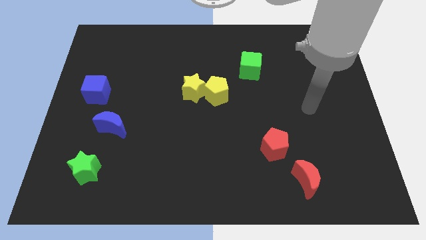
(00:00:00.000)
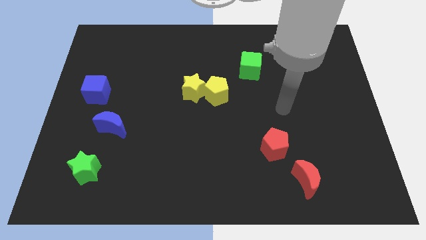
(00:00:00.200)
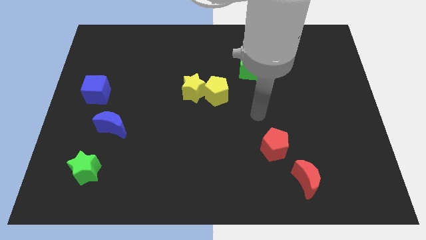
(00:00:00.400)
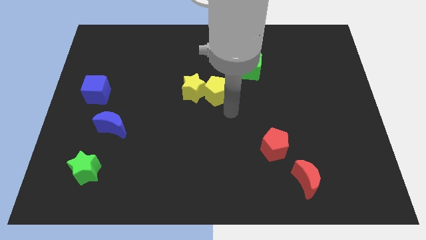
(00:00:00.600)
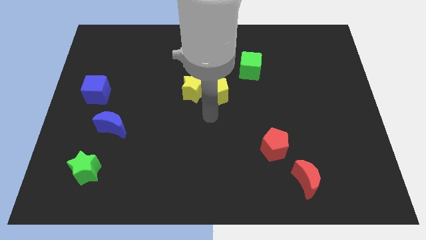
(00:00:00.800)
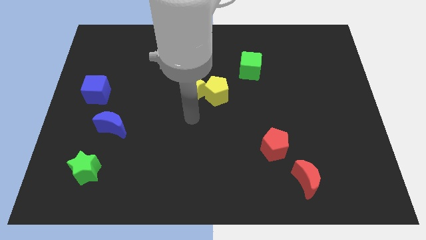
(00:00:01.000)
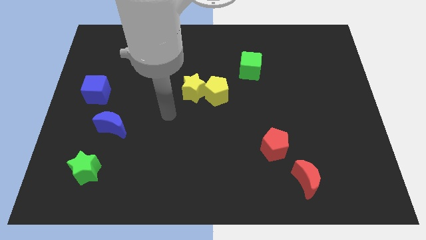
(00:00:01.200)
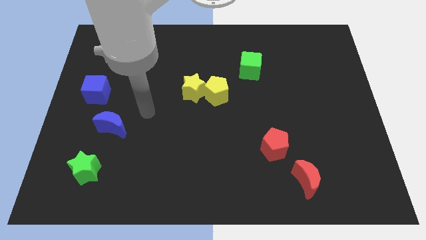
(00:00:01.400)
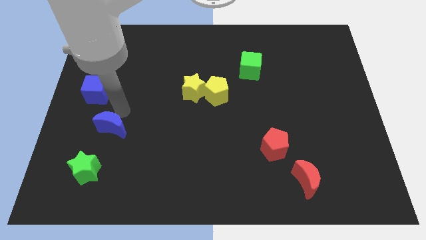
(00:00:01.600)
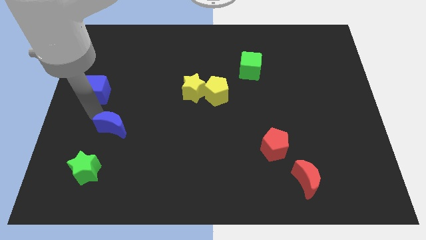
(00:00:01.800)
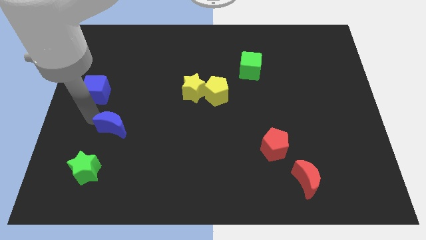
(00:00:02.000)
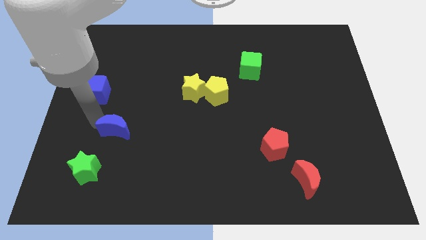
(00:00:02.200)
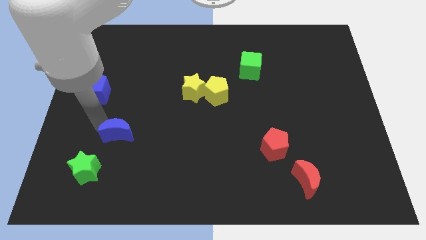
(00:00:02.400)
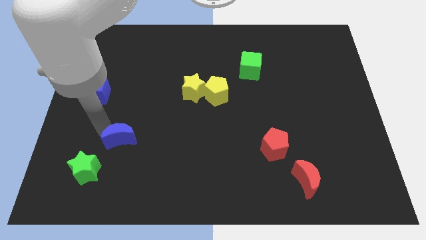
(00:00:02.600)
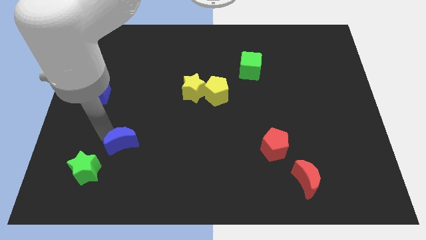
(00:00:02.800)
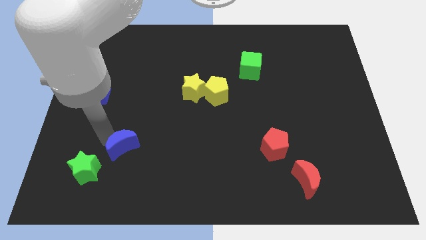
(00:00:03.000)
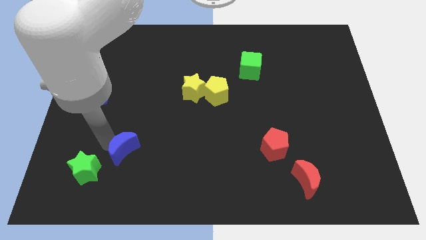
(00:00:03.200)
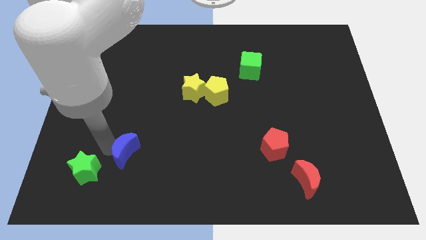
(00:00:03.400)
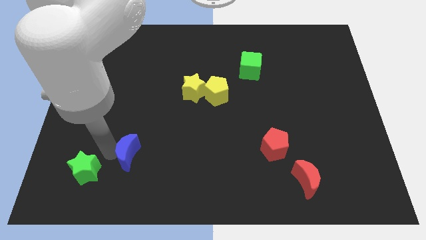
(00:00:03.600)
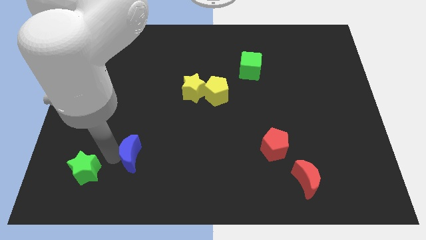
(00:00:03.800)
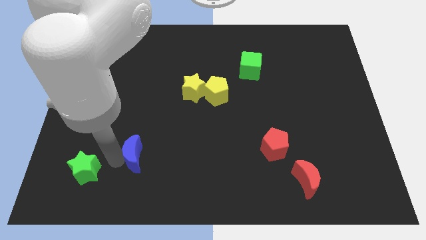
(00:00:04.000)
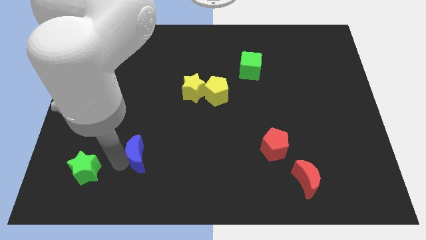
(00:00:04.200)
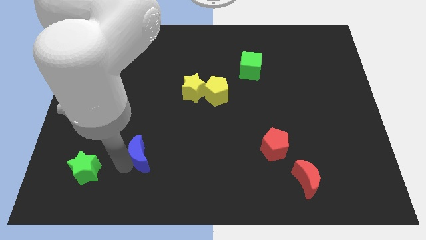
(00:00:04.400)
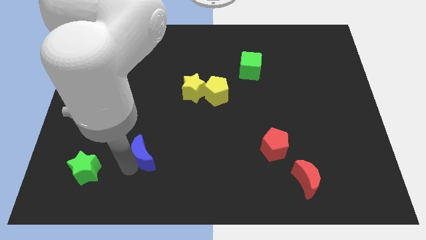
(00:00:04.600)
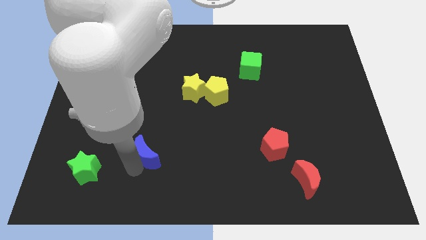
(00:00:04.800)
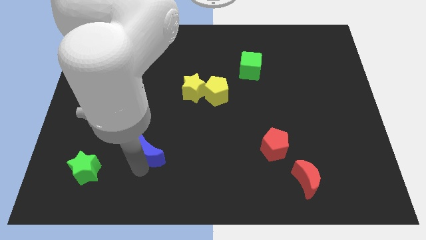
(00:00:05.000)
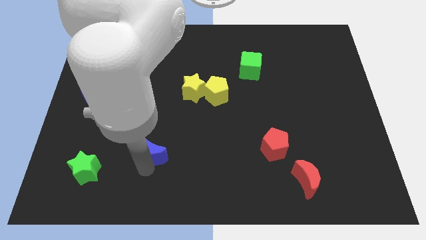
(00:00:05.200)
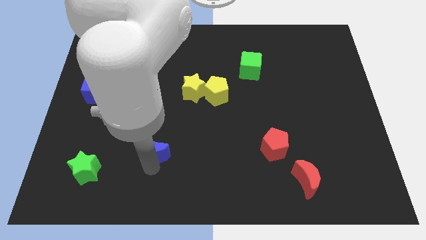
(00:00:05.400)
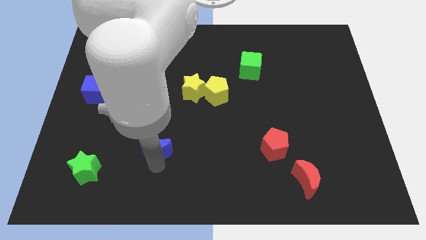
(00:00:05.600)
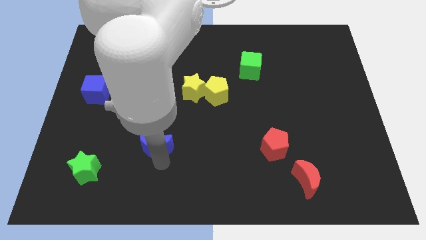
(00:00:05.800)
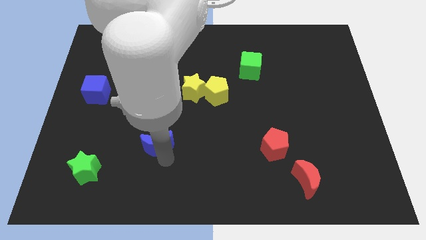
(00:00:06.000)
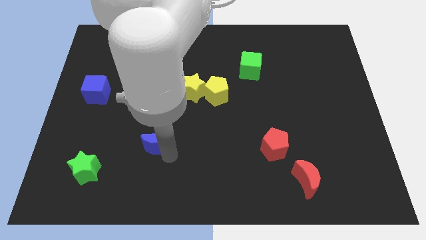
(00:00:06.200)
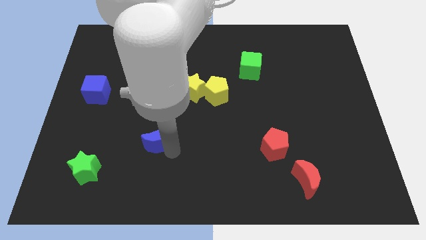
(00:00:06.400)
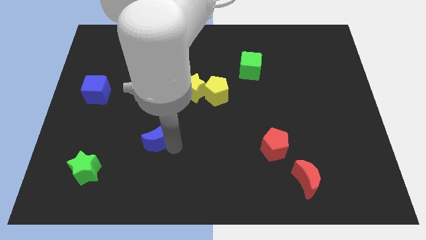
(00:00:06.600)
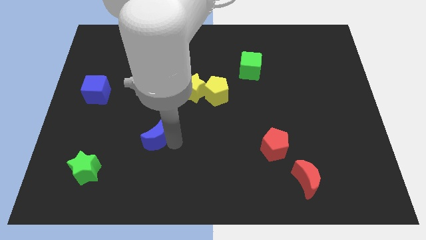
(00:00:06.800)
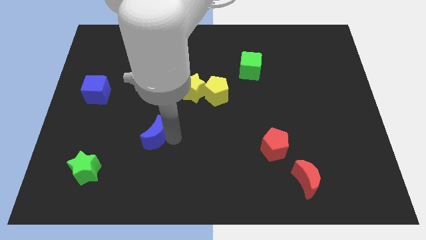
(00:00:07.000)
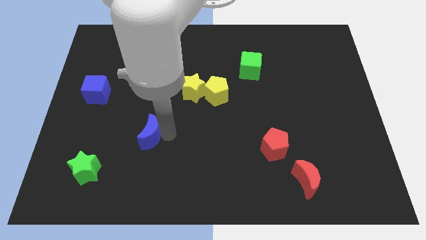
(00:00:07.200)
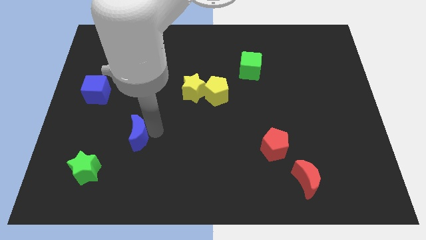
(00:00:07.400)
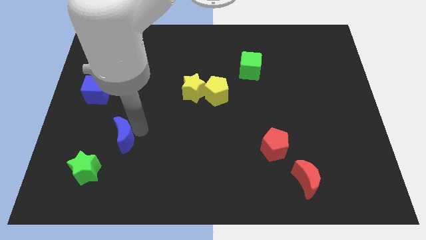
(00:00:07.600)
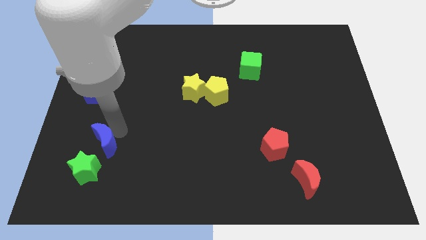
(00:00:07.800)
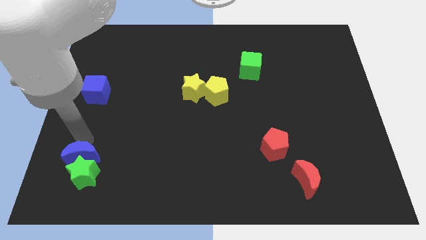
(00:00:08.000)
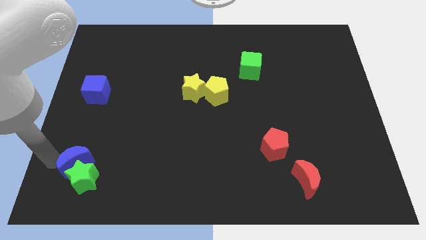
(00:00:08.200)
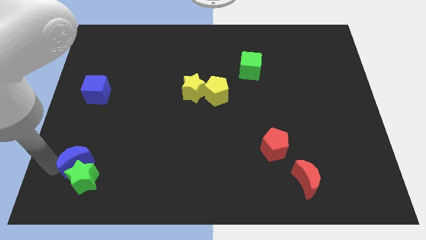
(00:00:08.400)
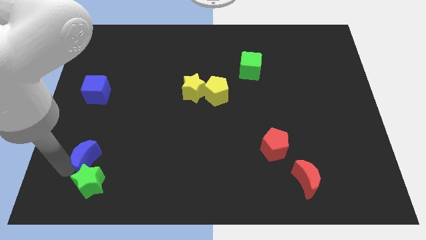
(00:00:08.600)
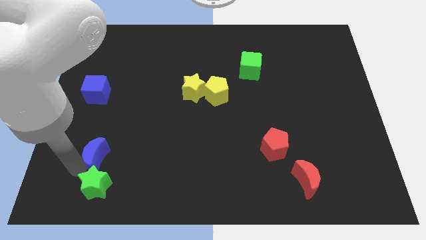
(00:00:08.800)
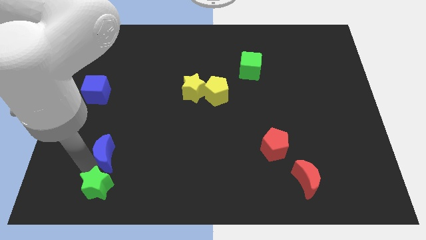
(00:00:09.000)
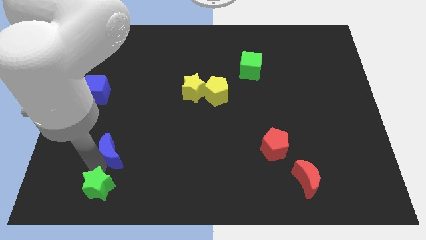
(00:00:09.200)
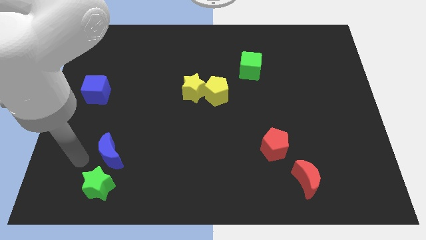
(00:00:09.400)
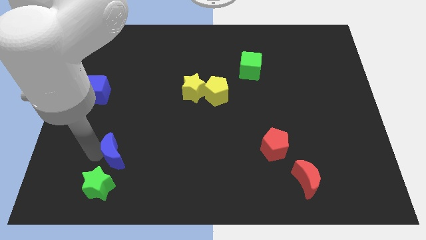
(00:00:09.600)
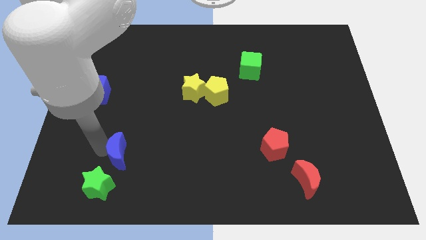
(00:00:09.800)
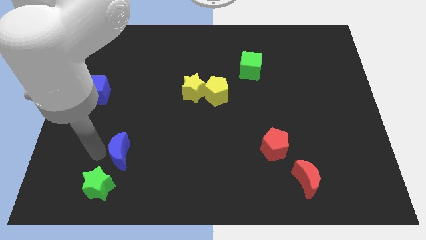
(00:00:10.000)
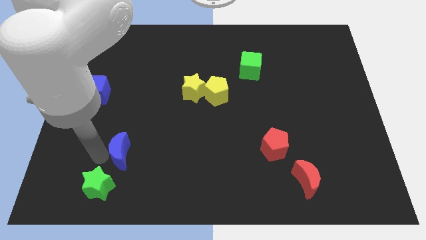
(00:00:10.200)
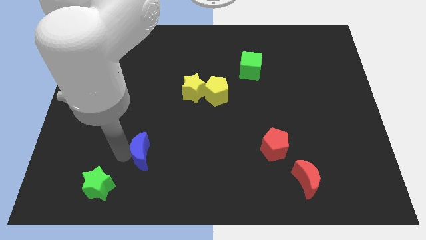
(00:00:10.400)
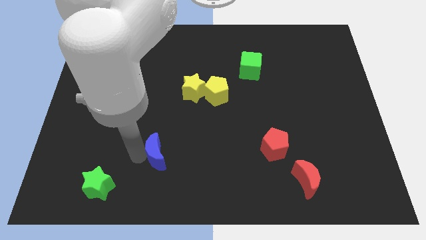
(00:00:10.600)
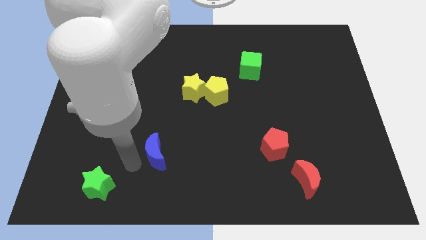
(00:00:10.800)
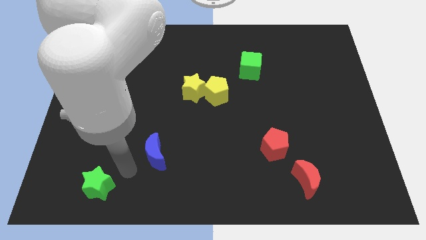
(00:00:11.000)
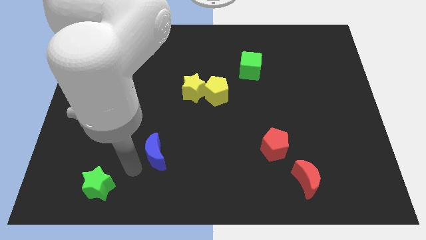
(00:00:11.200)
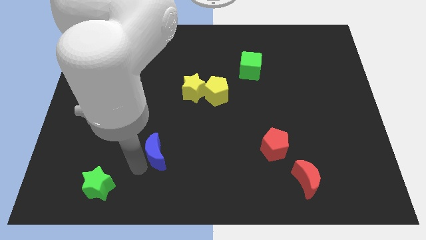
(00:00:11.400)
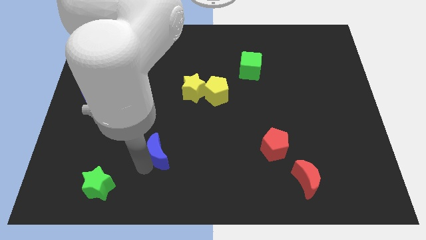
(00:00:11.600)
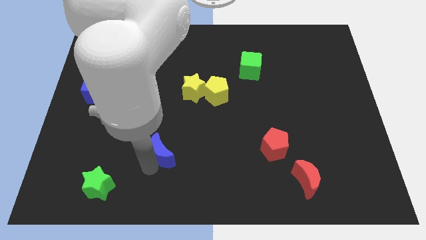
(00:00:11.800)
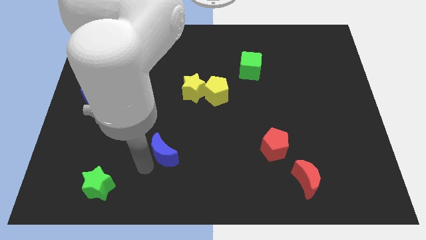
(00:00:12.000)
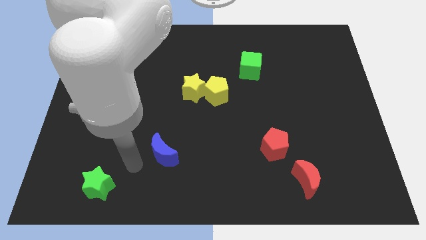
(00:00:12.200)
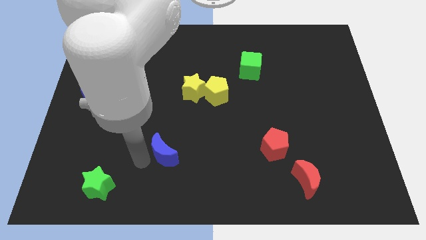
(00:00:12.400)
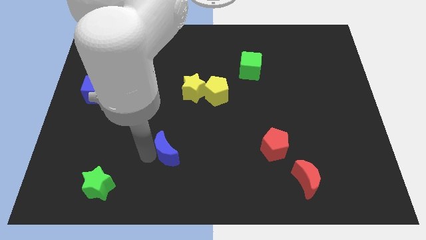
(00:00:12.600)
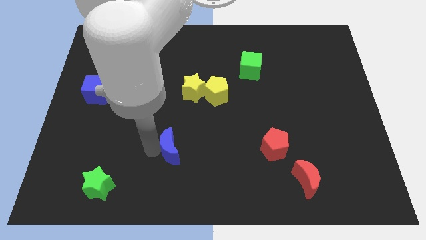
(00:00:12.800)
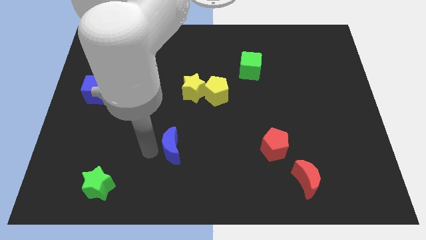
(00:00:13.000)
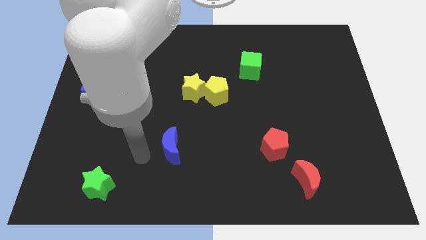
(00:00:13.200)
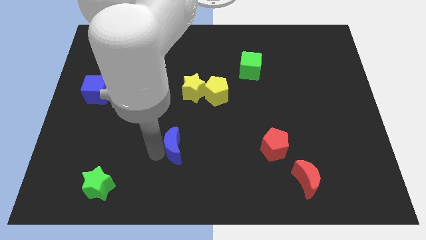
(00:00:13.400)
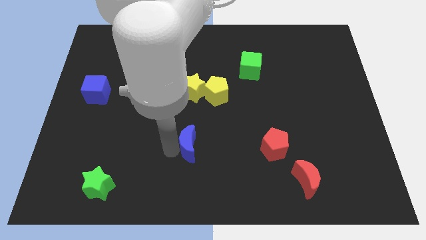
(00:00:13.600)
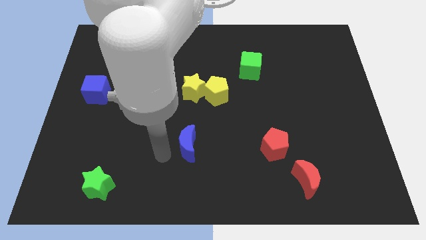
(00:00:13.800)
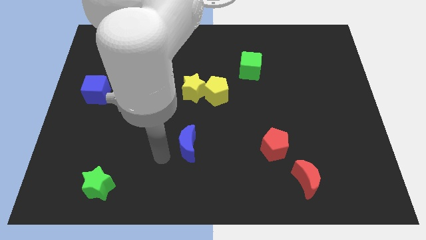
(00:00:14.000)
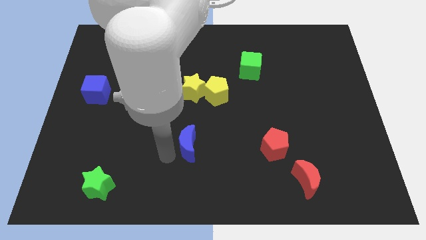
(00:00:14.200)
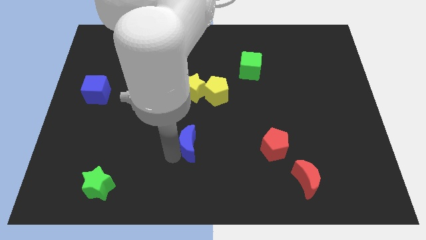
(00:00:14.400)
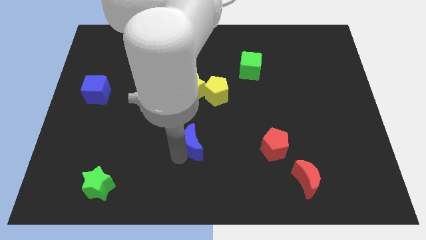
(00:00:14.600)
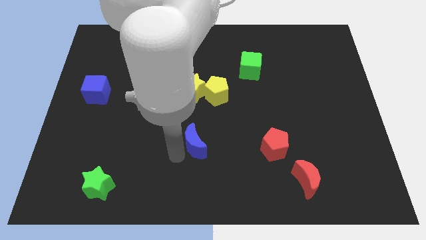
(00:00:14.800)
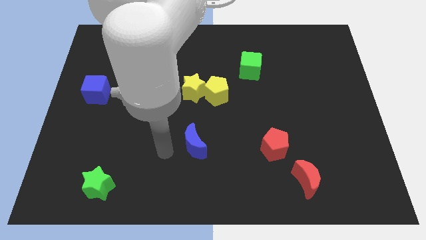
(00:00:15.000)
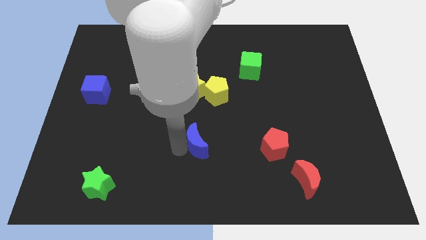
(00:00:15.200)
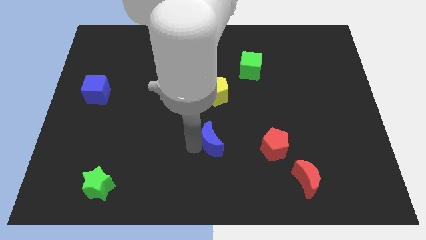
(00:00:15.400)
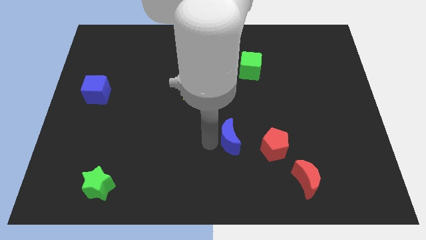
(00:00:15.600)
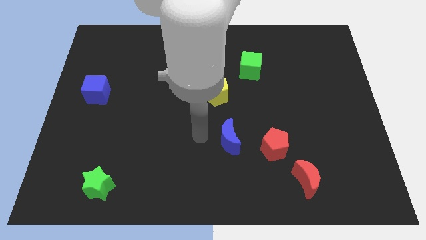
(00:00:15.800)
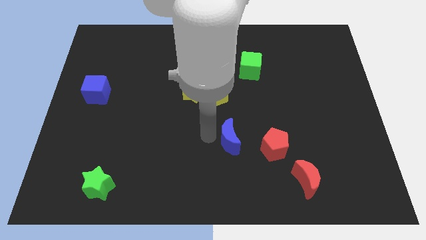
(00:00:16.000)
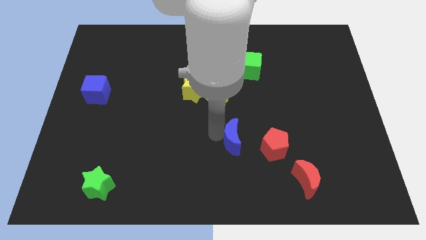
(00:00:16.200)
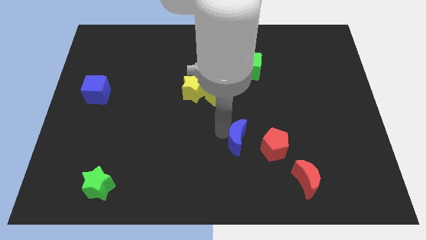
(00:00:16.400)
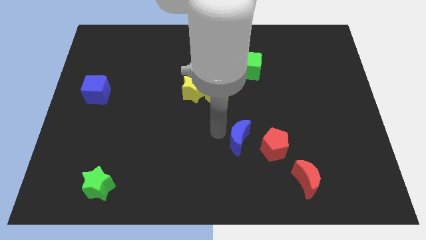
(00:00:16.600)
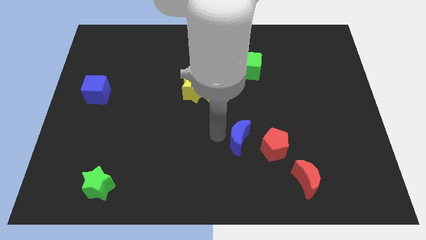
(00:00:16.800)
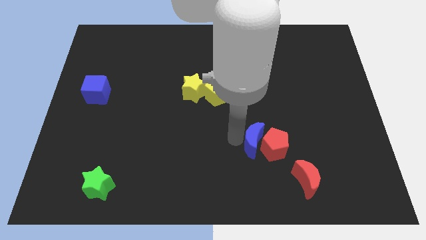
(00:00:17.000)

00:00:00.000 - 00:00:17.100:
push the blue moon towards the red pentagon
